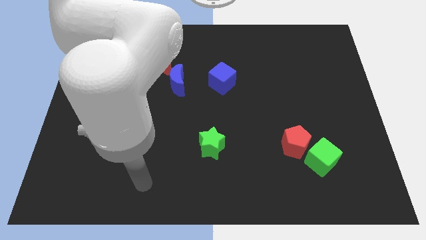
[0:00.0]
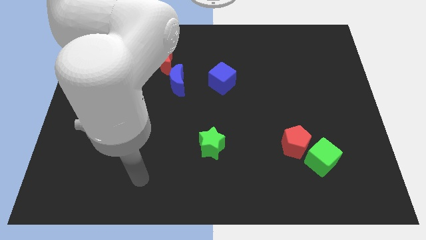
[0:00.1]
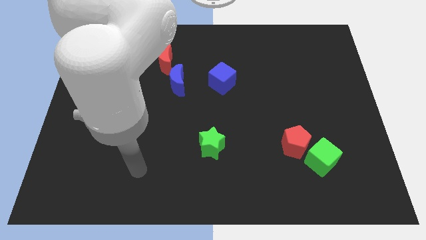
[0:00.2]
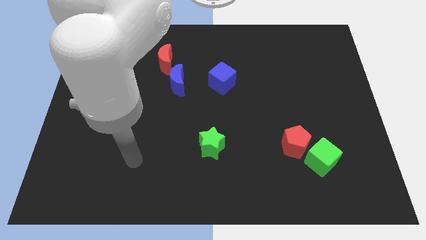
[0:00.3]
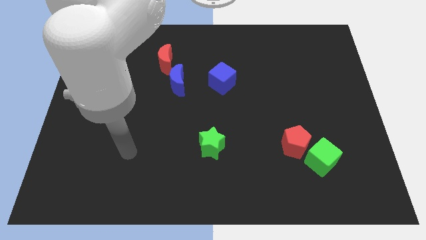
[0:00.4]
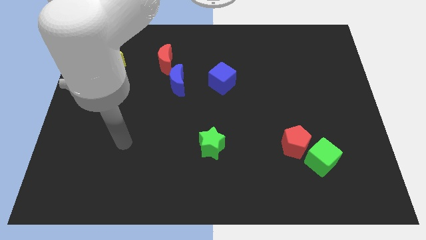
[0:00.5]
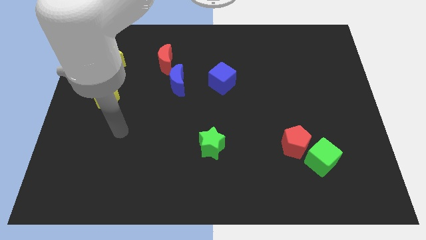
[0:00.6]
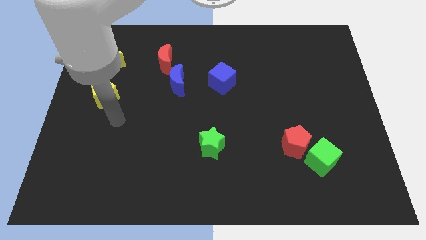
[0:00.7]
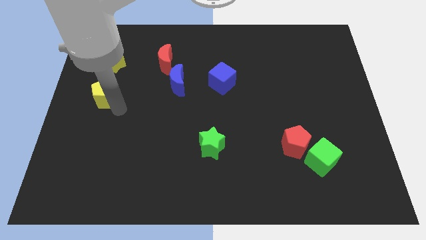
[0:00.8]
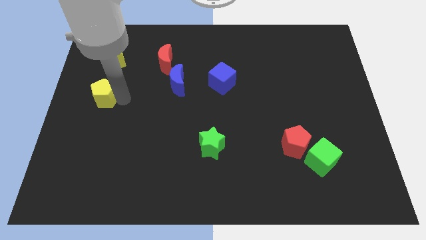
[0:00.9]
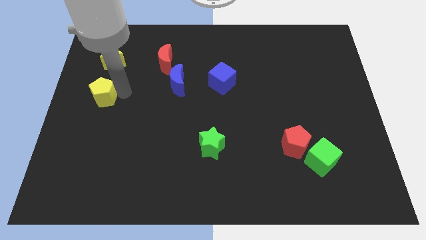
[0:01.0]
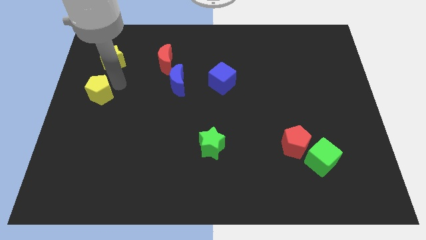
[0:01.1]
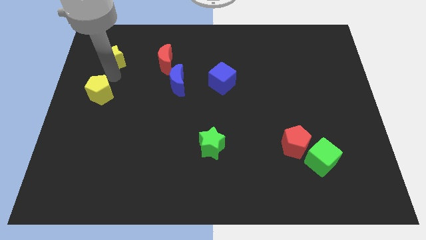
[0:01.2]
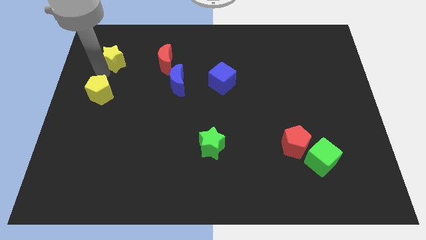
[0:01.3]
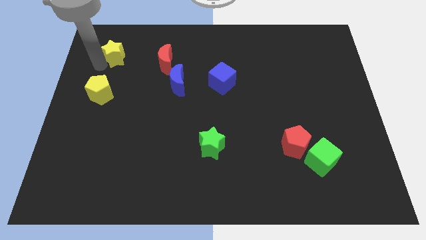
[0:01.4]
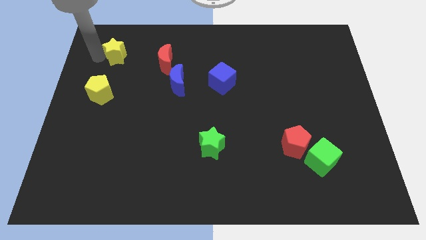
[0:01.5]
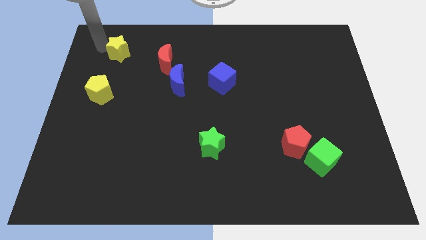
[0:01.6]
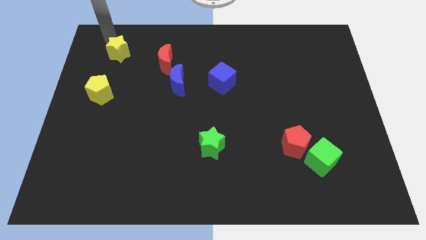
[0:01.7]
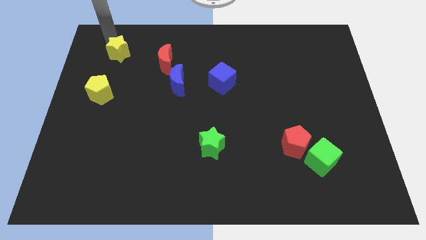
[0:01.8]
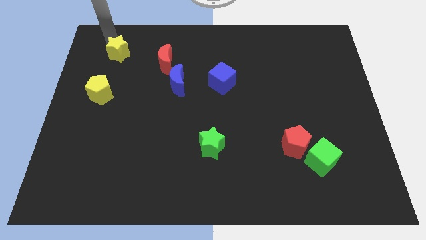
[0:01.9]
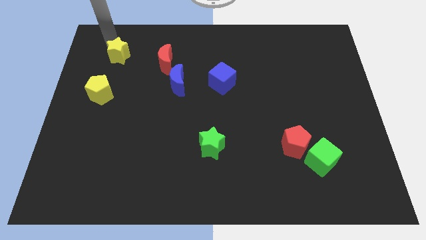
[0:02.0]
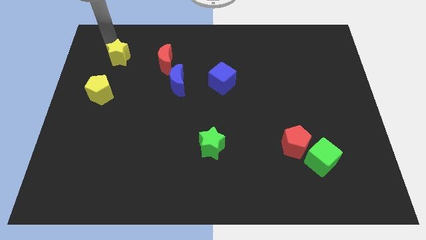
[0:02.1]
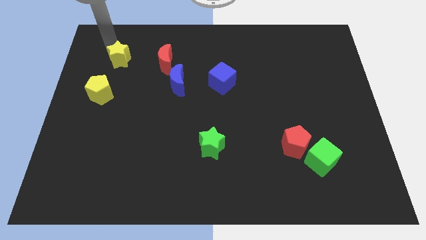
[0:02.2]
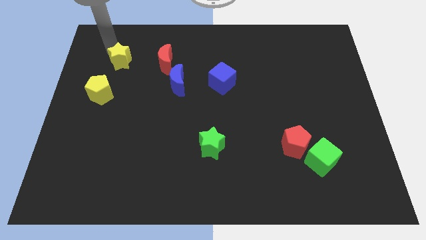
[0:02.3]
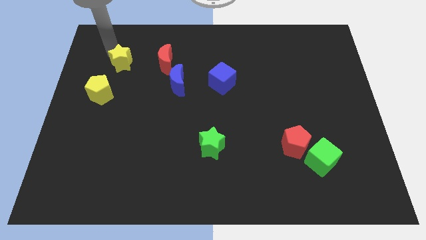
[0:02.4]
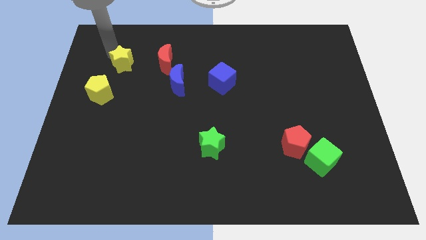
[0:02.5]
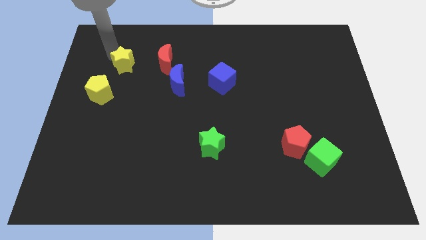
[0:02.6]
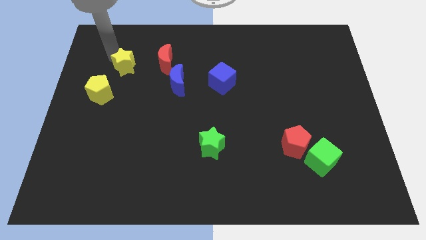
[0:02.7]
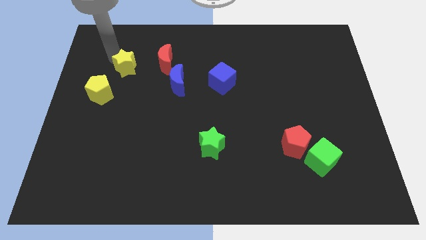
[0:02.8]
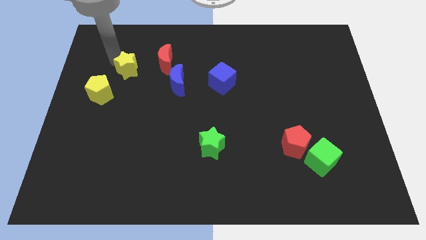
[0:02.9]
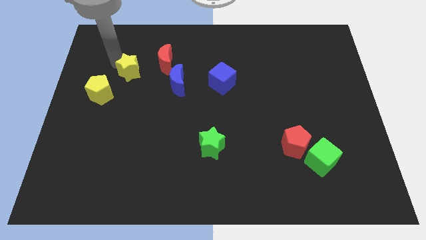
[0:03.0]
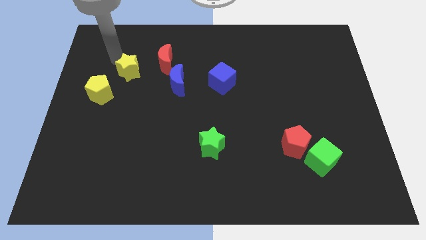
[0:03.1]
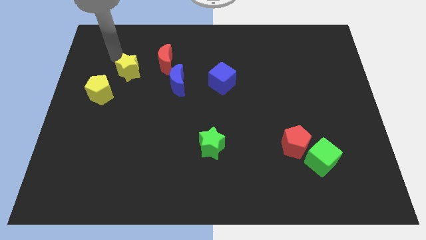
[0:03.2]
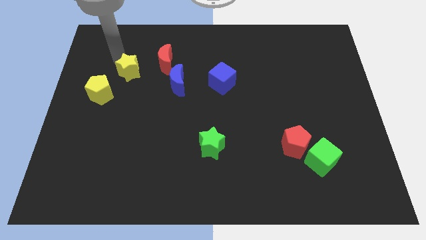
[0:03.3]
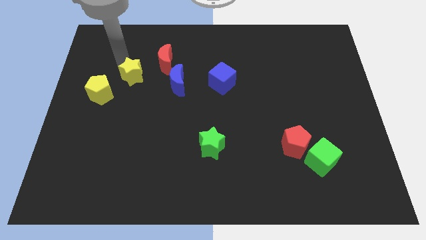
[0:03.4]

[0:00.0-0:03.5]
slide the yellow star down and to the right diagonally somewhat

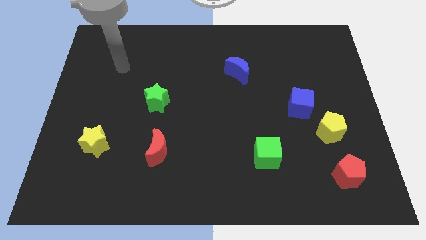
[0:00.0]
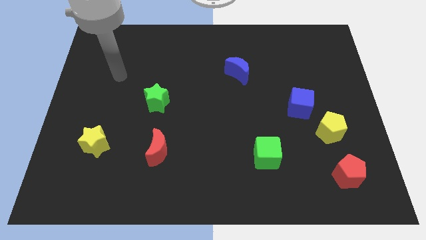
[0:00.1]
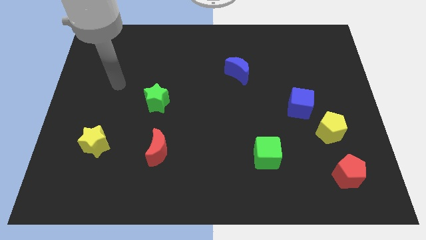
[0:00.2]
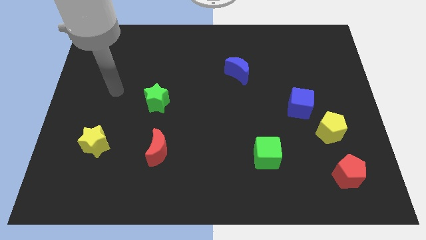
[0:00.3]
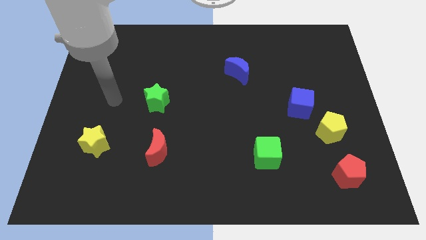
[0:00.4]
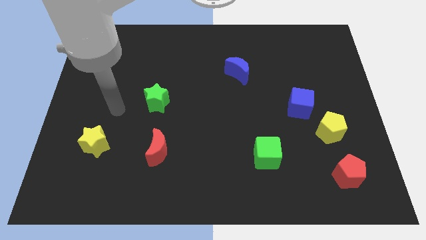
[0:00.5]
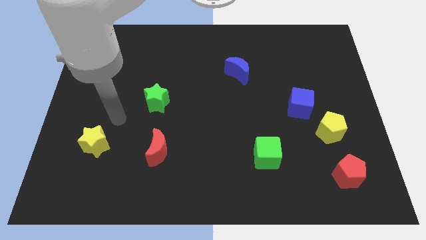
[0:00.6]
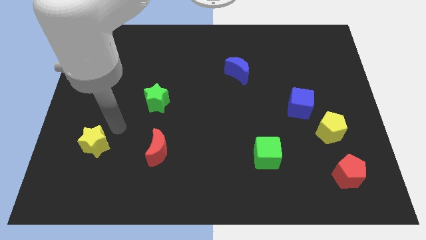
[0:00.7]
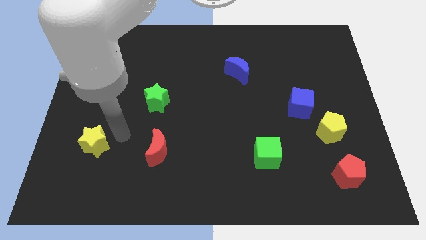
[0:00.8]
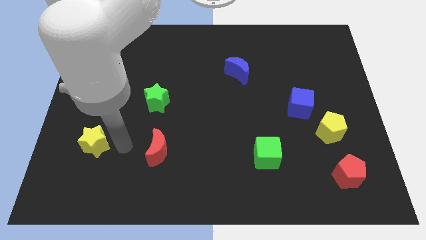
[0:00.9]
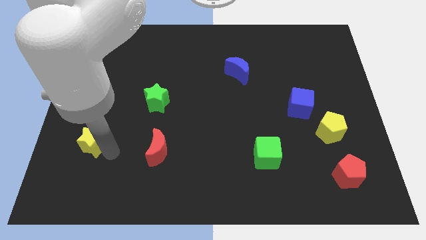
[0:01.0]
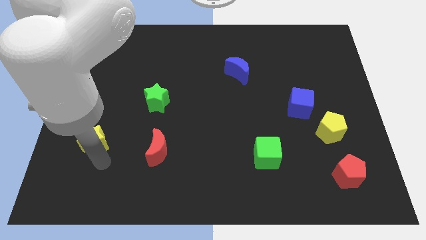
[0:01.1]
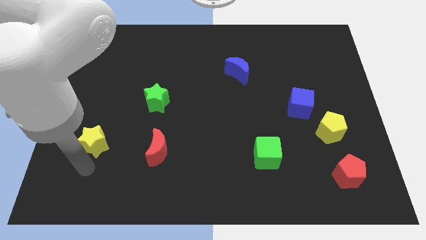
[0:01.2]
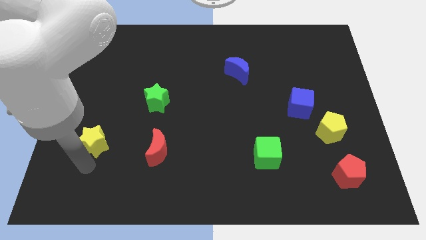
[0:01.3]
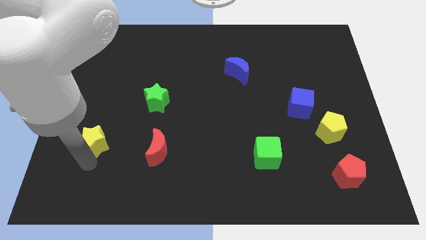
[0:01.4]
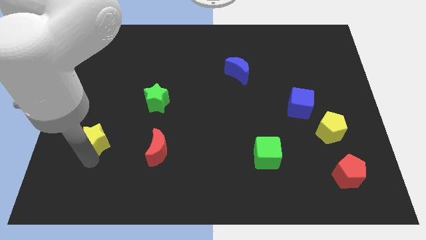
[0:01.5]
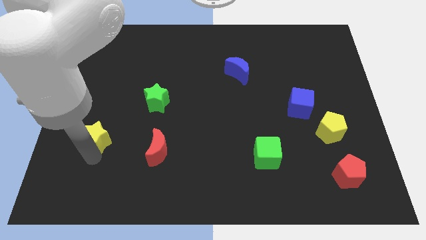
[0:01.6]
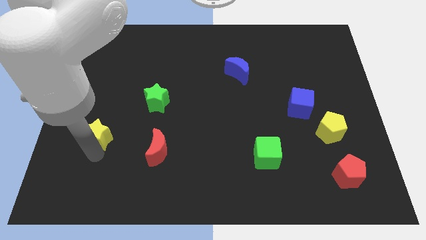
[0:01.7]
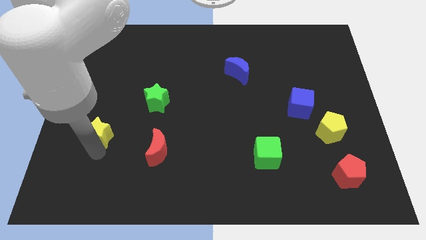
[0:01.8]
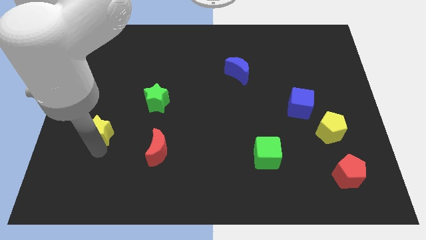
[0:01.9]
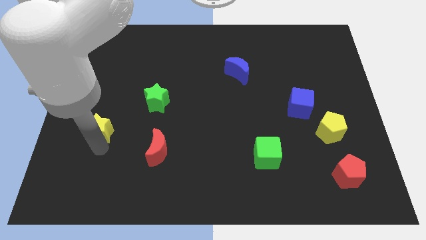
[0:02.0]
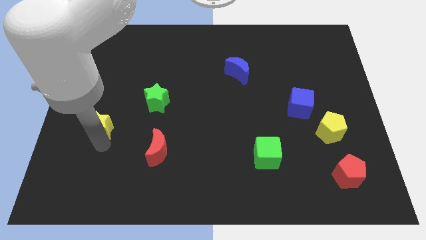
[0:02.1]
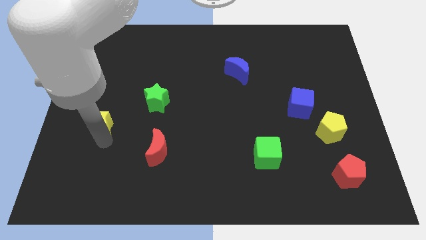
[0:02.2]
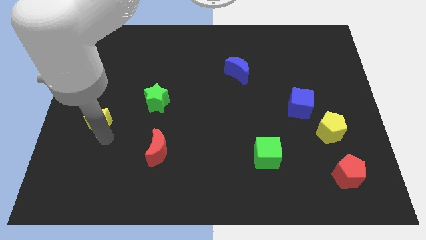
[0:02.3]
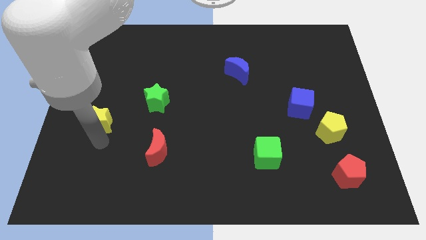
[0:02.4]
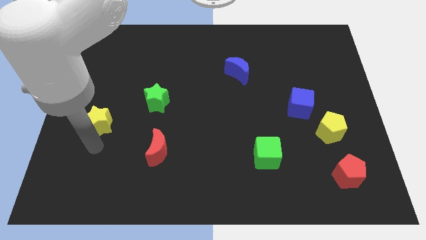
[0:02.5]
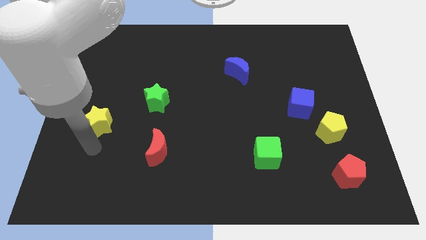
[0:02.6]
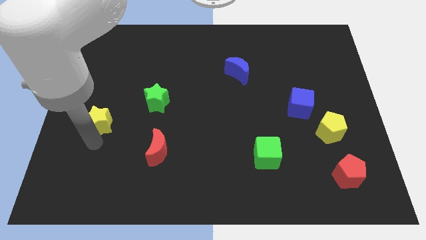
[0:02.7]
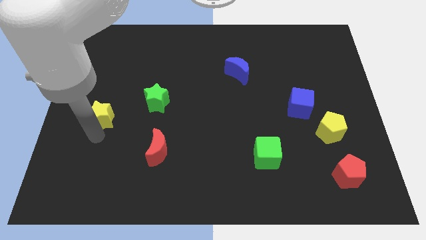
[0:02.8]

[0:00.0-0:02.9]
move the yellow star upwards somewhat

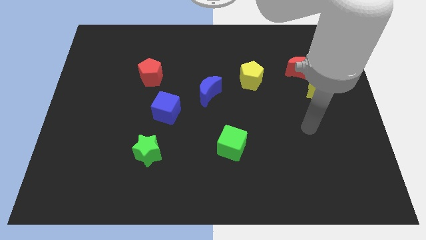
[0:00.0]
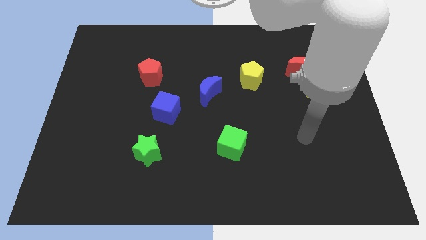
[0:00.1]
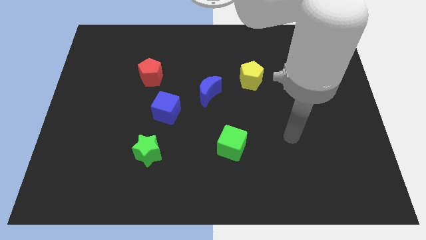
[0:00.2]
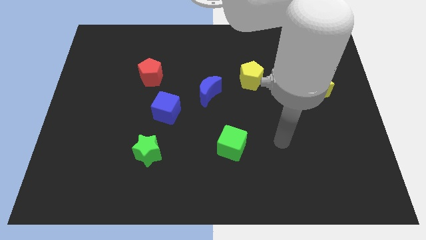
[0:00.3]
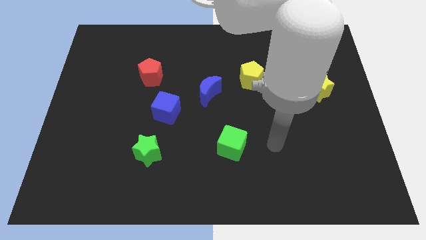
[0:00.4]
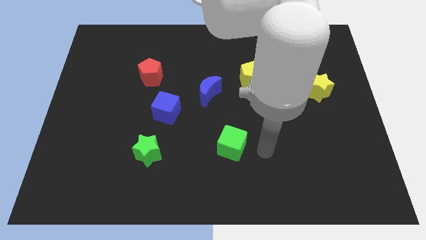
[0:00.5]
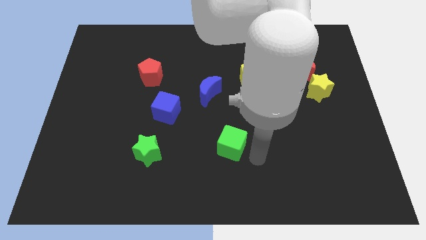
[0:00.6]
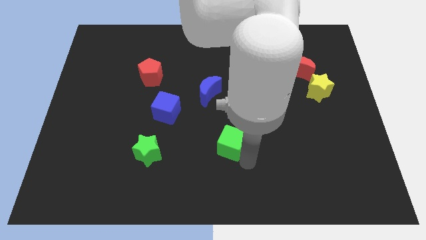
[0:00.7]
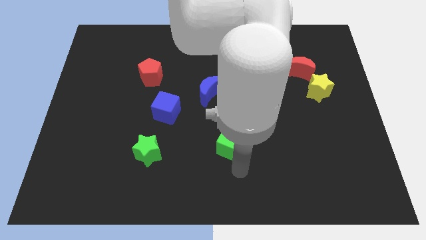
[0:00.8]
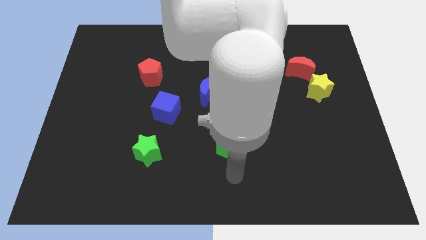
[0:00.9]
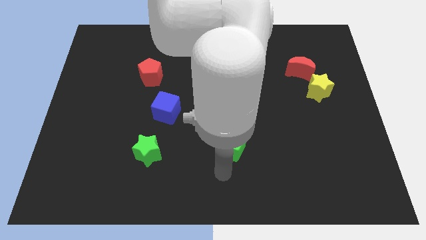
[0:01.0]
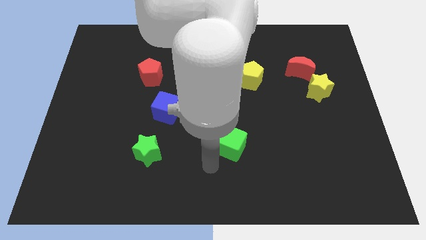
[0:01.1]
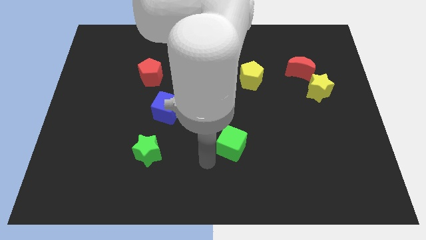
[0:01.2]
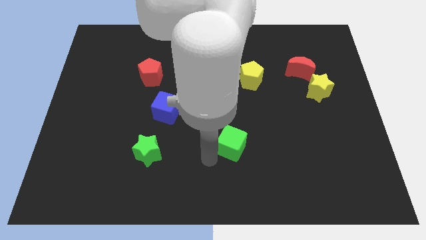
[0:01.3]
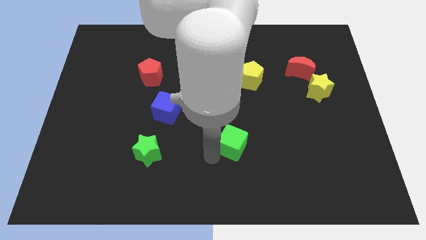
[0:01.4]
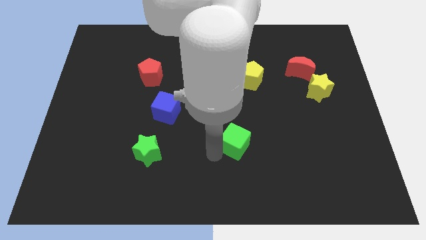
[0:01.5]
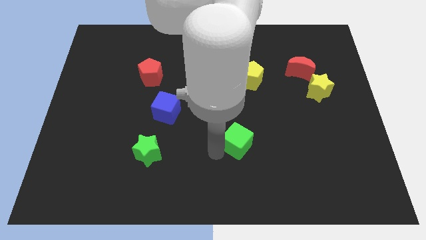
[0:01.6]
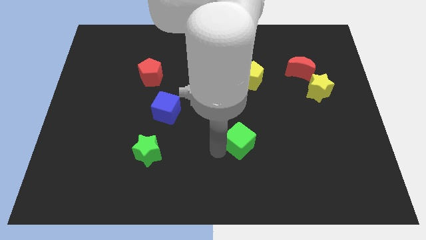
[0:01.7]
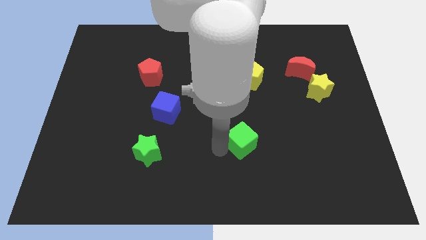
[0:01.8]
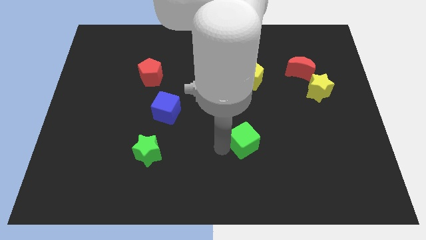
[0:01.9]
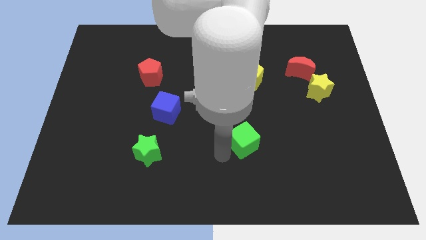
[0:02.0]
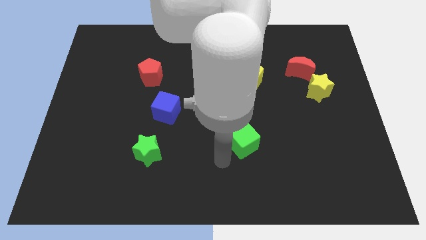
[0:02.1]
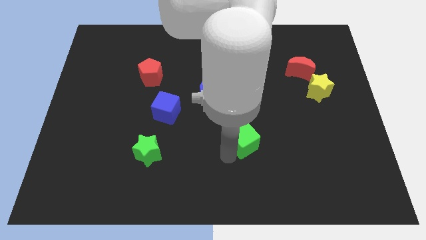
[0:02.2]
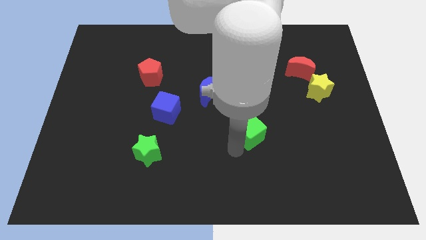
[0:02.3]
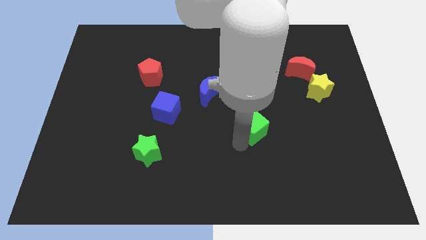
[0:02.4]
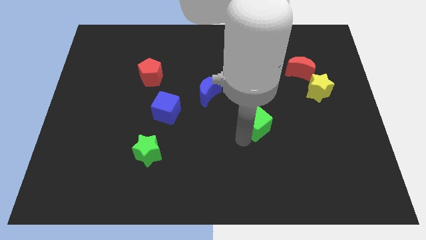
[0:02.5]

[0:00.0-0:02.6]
slightly push the green cube upwards and to the right diagonally
